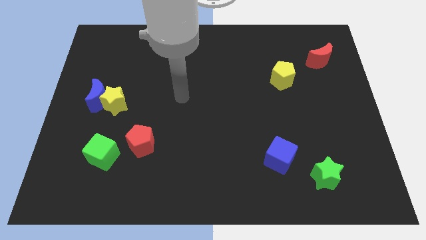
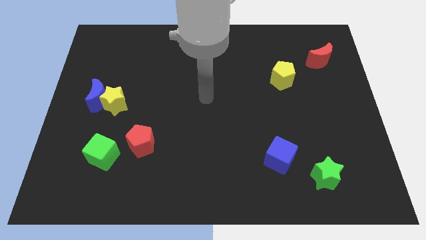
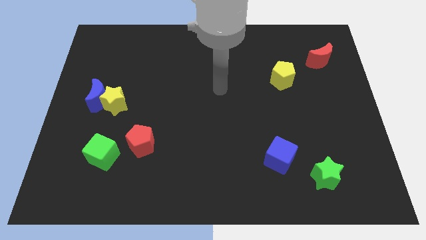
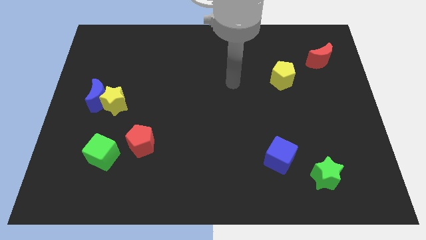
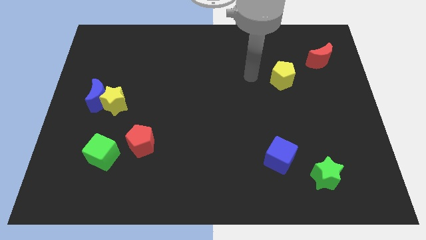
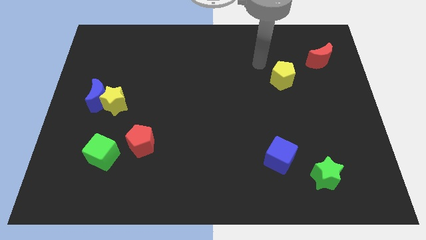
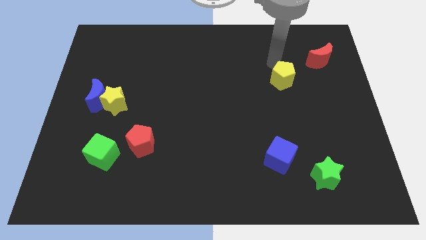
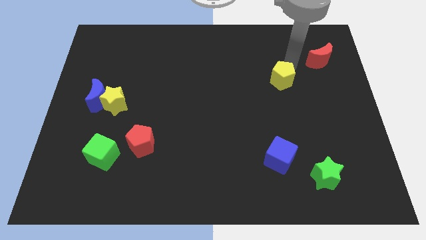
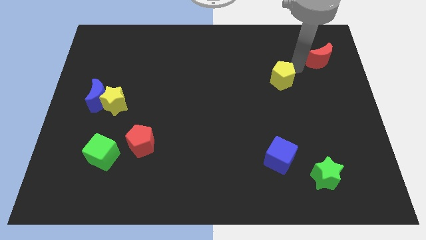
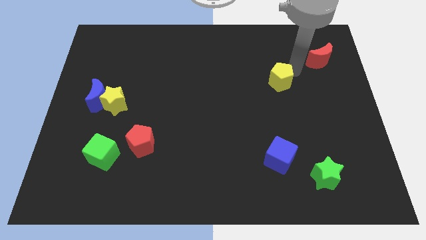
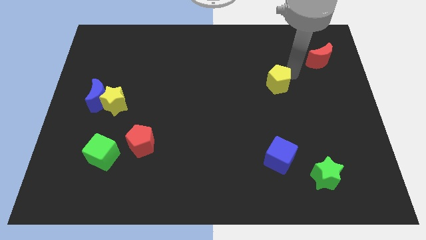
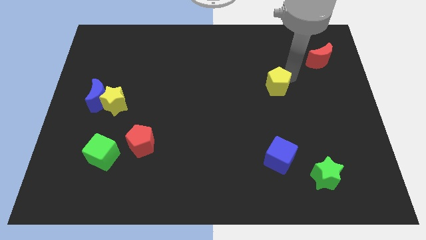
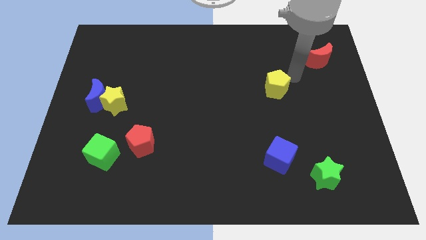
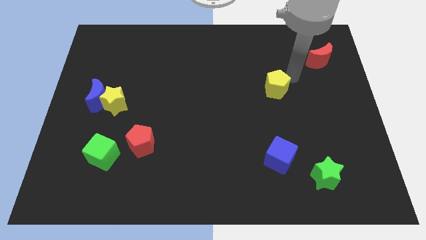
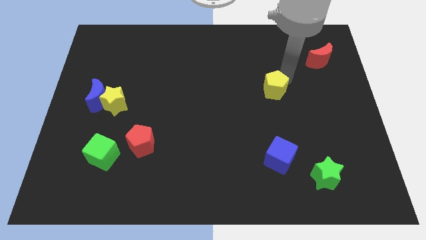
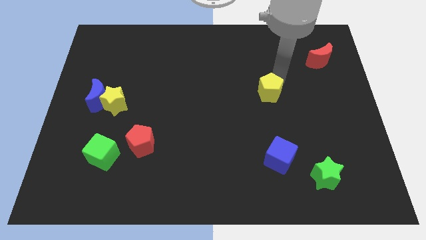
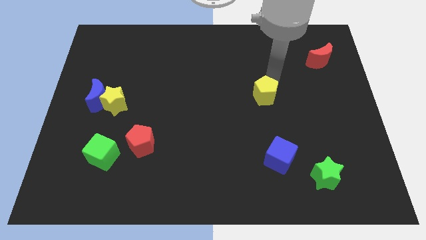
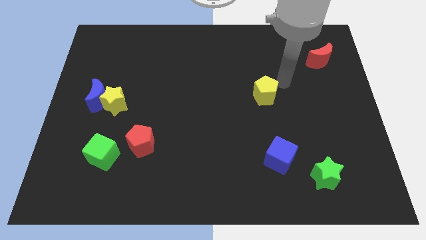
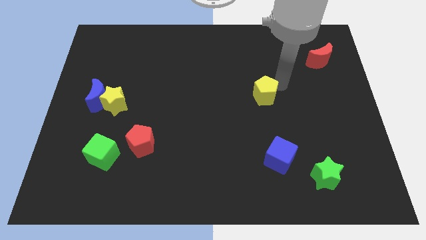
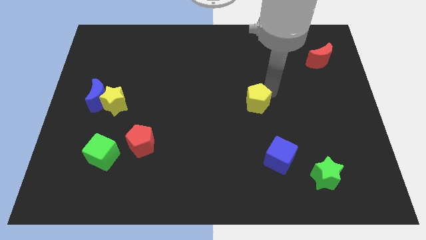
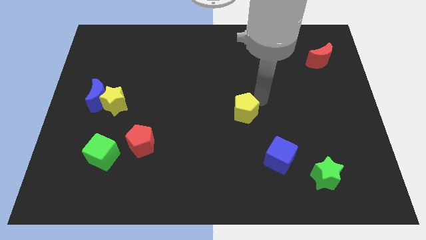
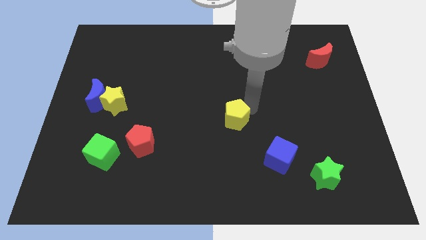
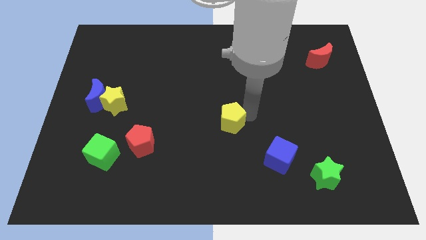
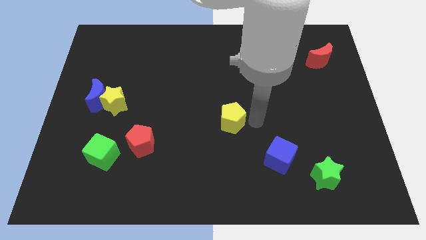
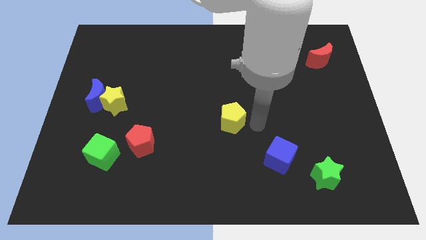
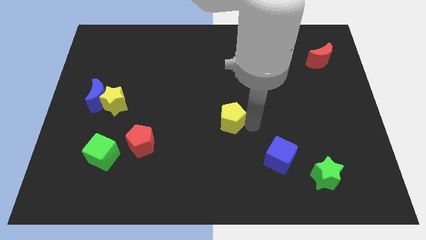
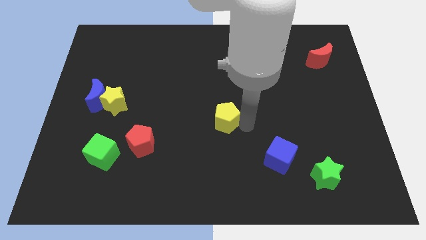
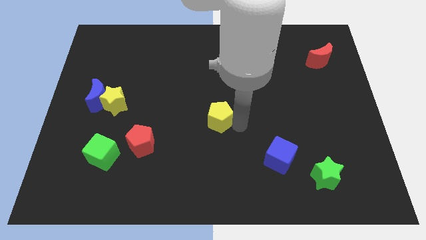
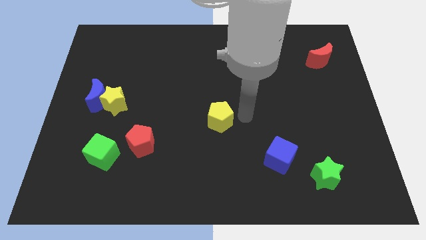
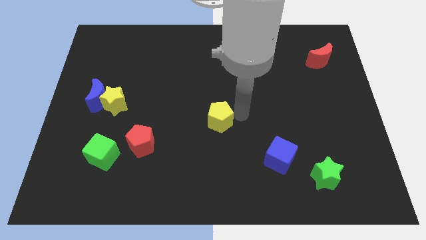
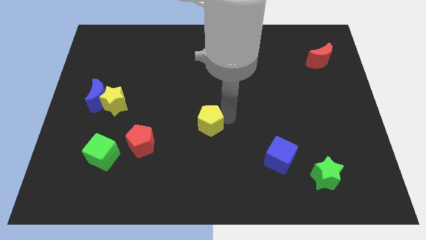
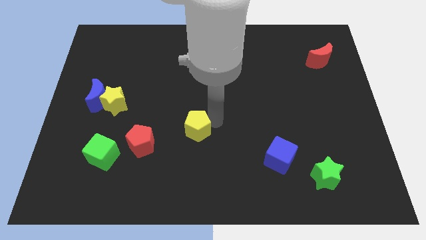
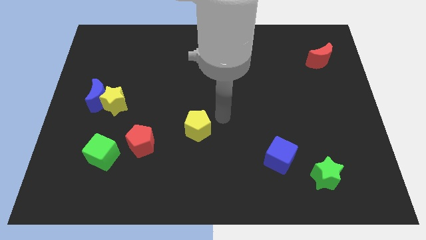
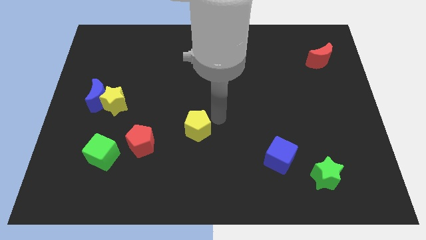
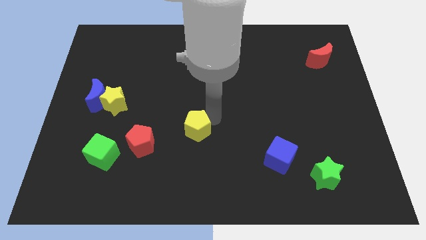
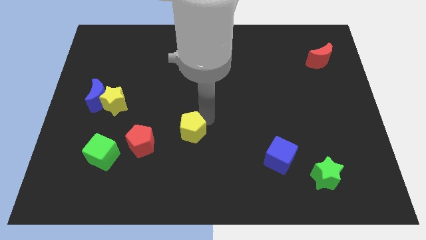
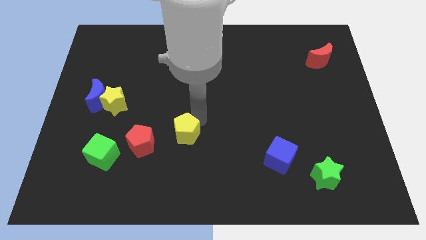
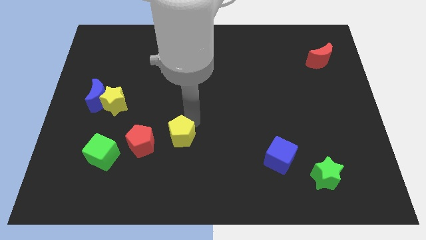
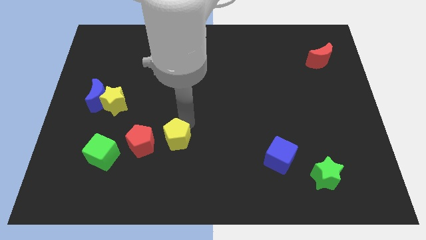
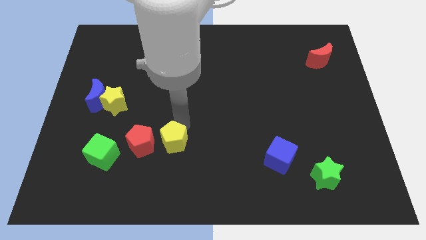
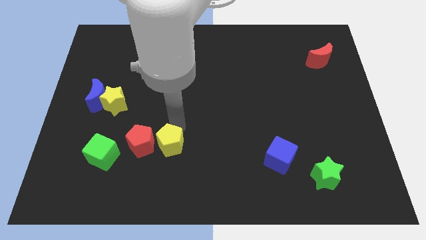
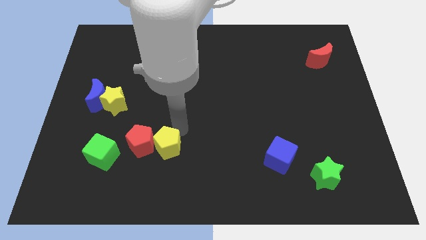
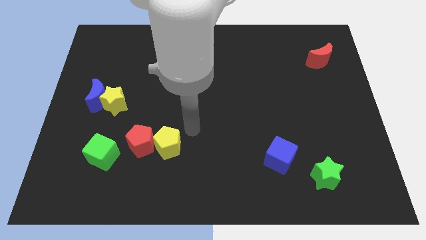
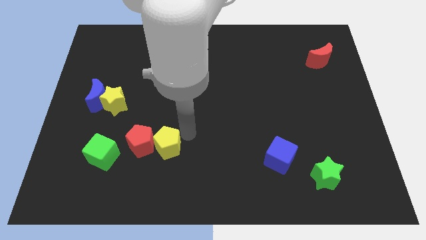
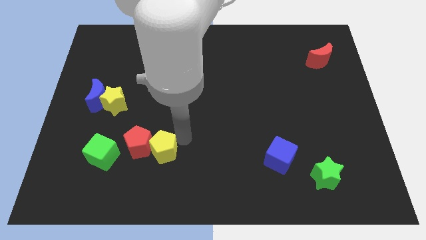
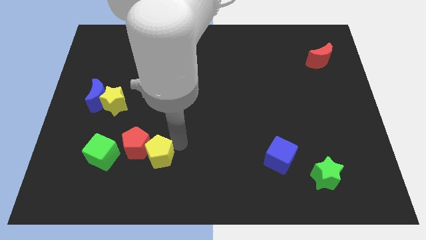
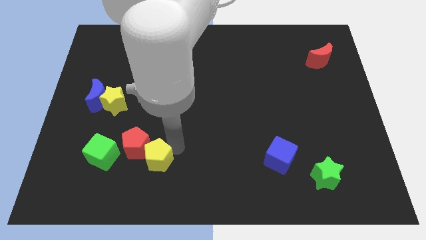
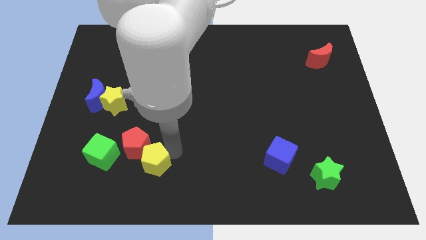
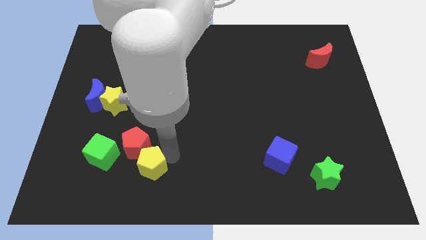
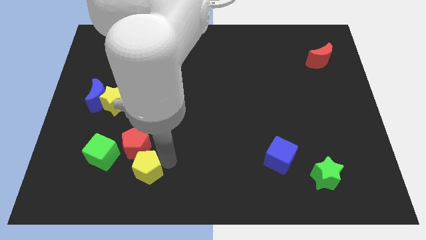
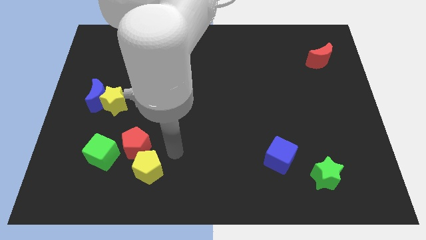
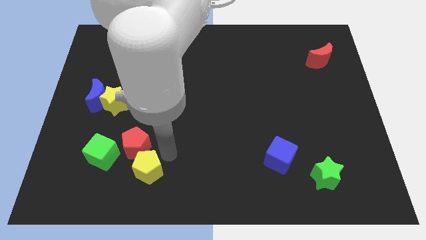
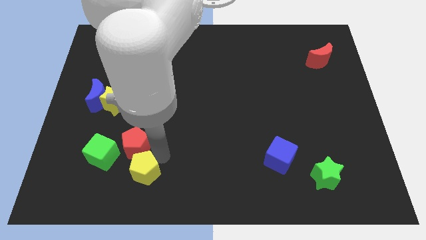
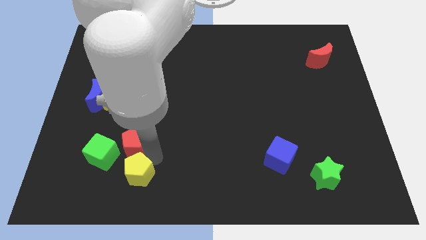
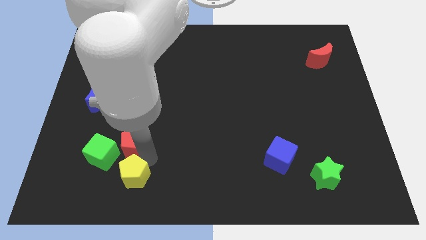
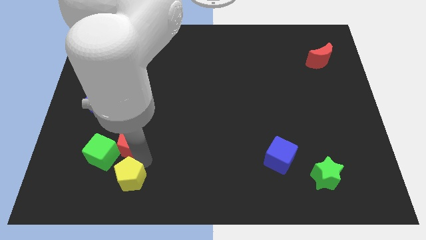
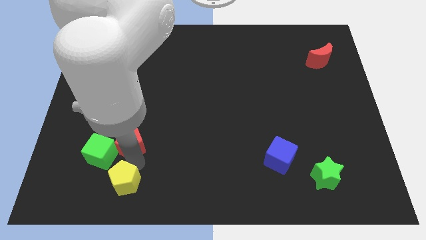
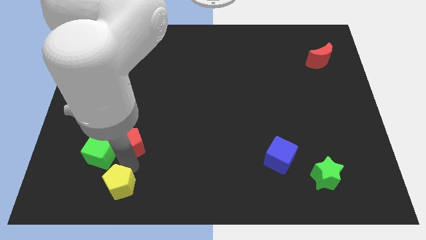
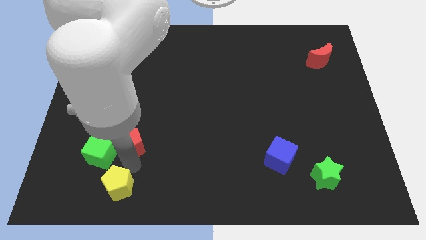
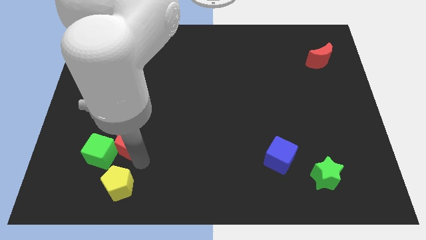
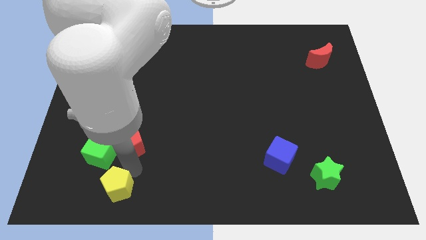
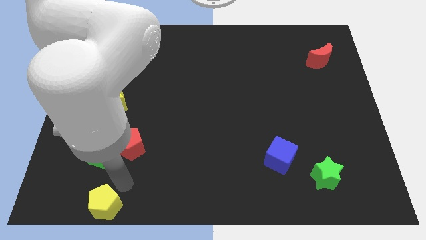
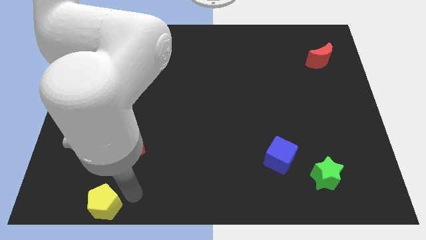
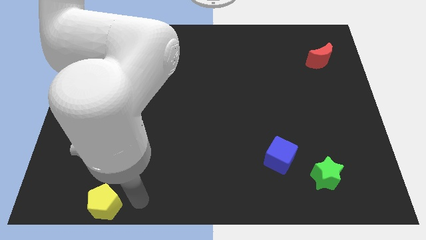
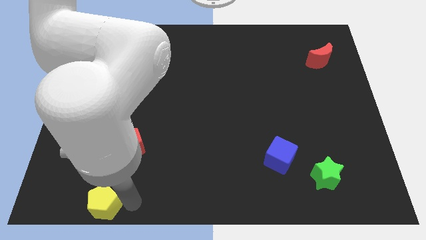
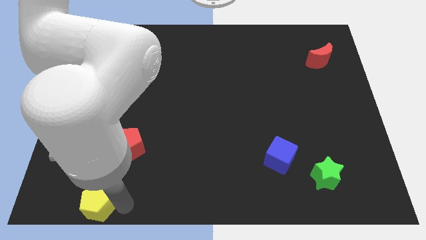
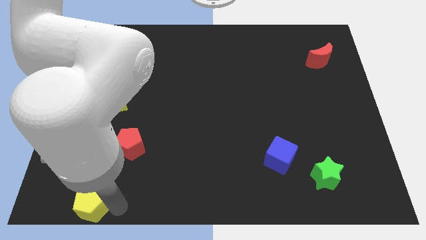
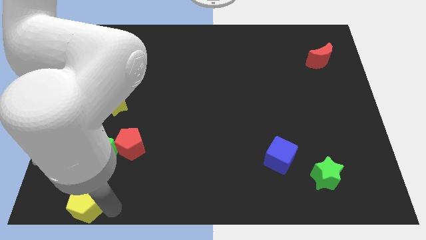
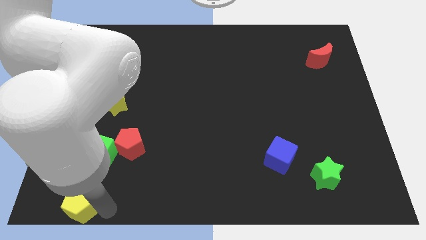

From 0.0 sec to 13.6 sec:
put the yellow pentagon to the lower left corner
